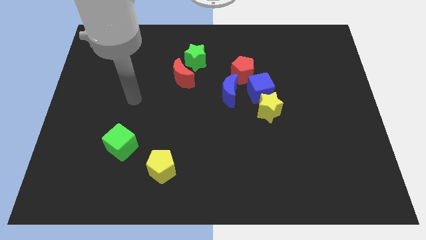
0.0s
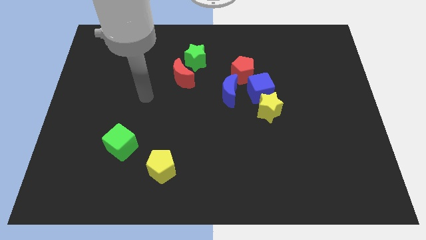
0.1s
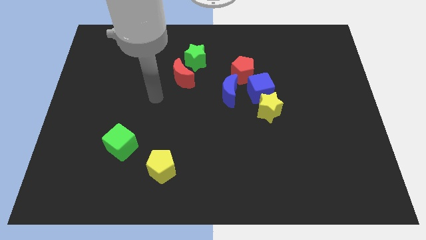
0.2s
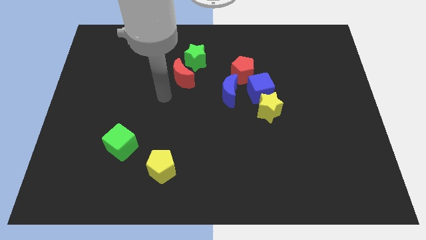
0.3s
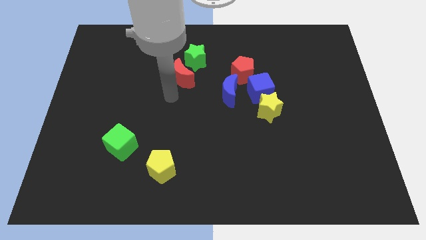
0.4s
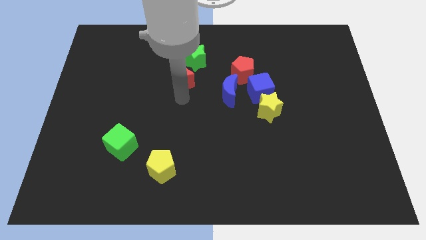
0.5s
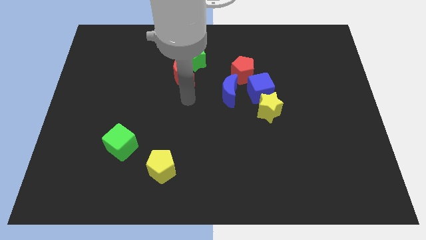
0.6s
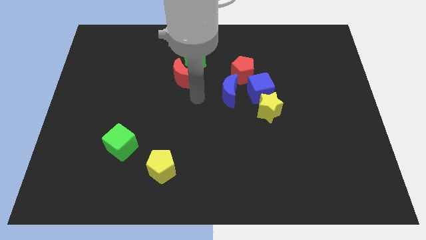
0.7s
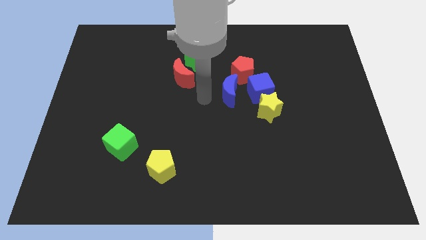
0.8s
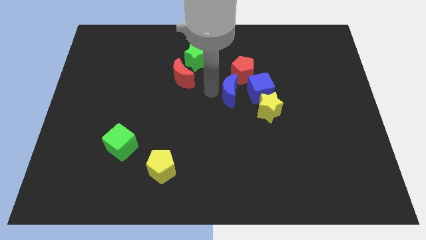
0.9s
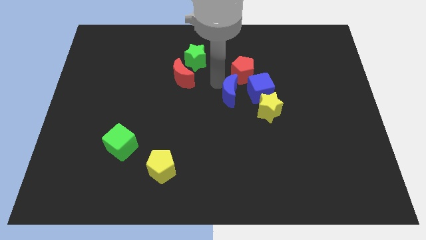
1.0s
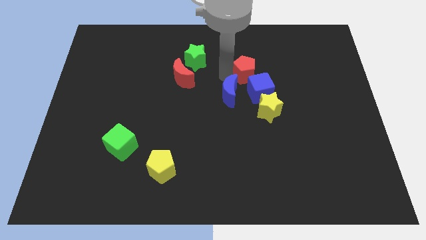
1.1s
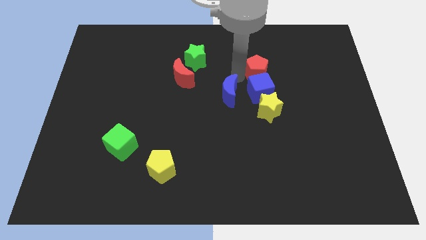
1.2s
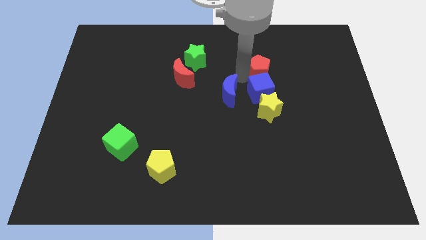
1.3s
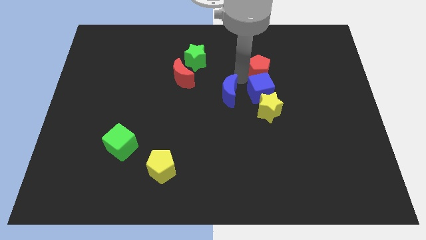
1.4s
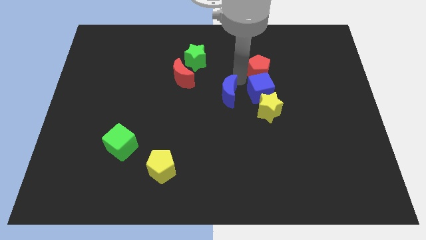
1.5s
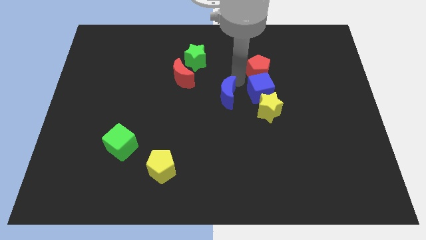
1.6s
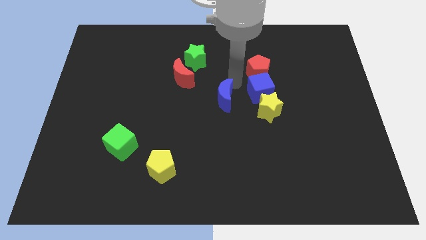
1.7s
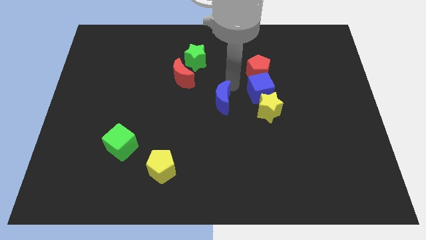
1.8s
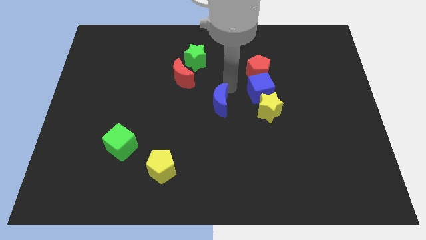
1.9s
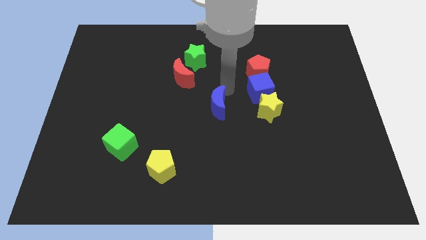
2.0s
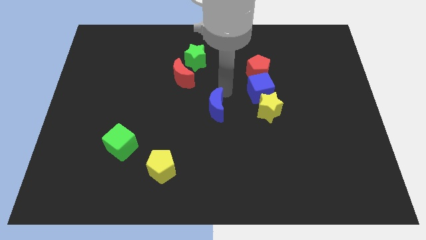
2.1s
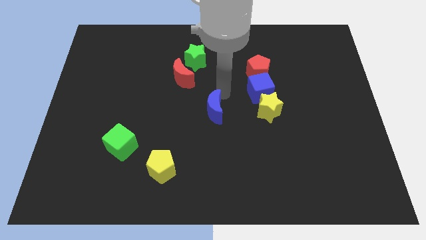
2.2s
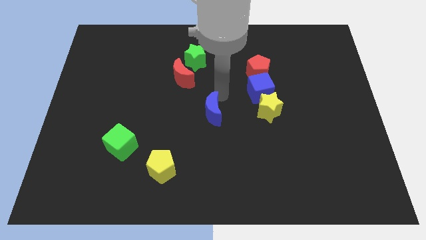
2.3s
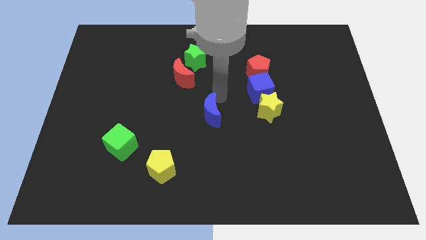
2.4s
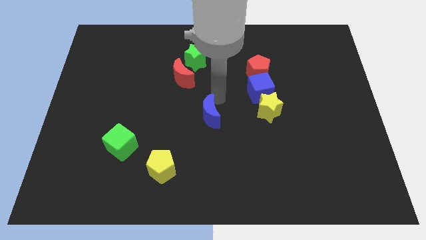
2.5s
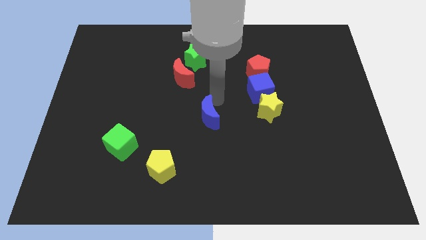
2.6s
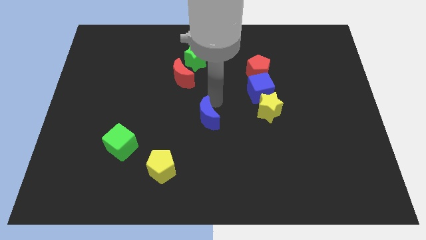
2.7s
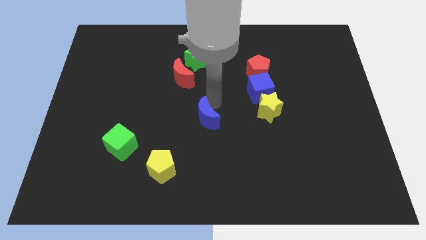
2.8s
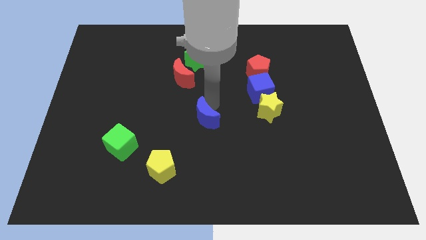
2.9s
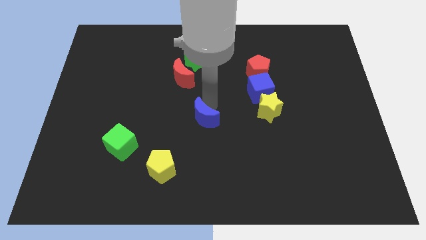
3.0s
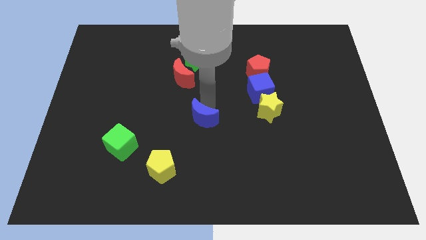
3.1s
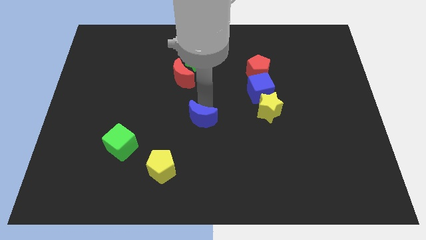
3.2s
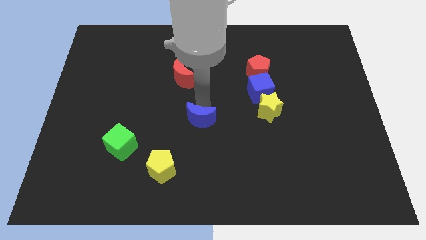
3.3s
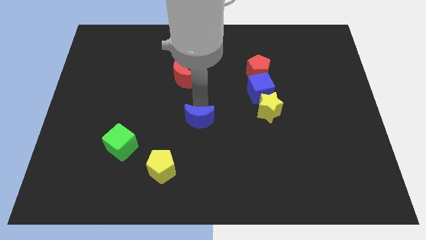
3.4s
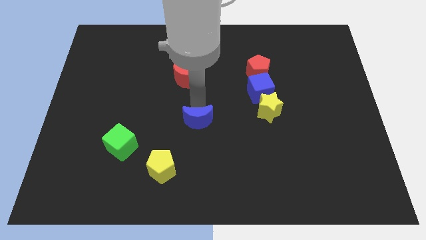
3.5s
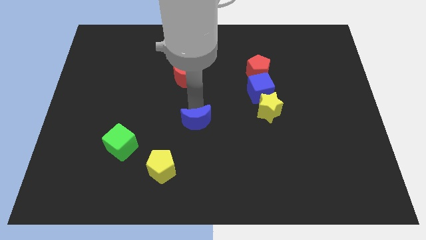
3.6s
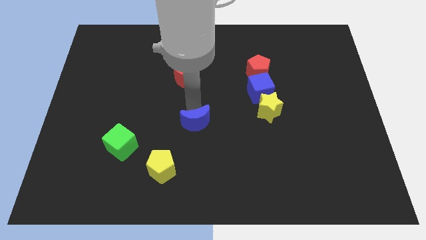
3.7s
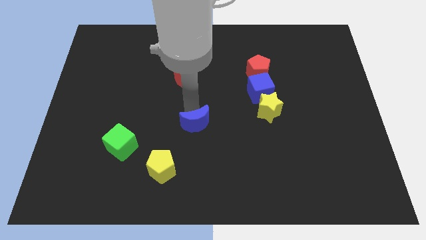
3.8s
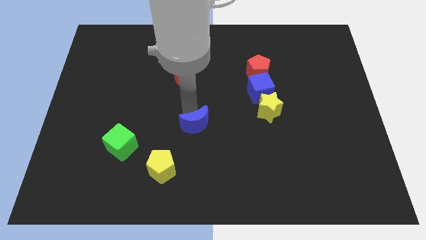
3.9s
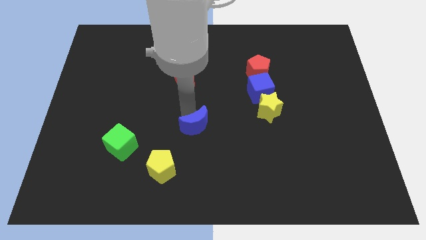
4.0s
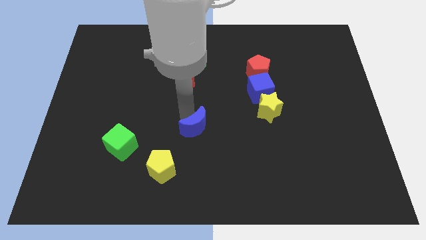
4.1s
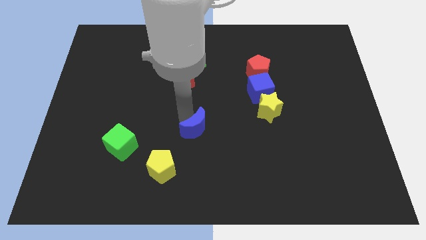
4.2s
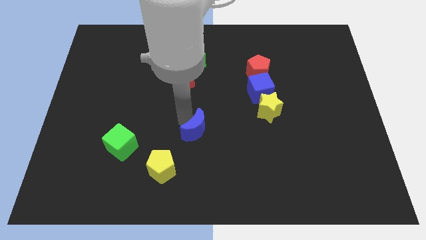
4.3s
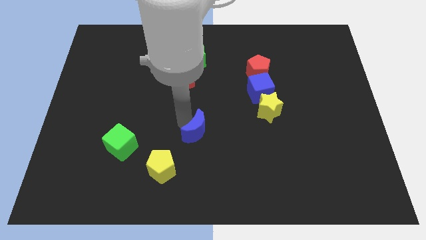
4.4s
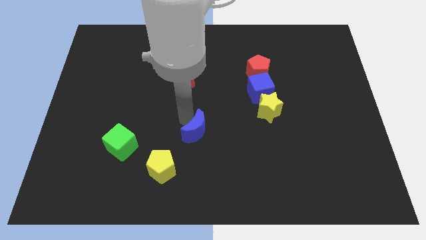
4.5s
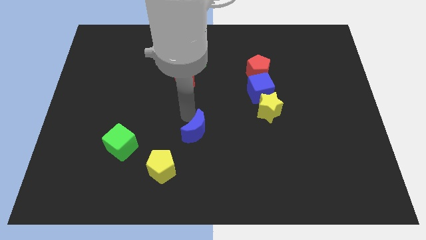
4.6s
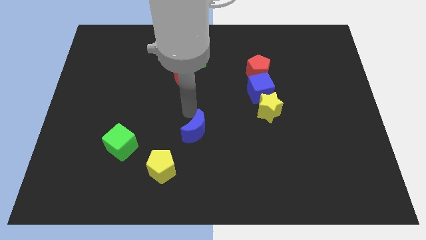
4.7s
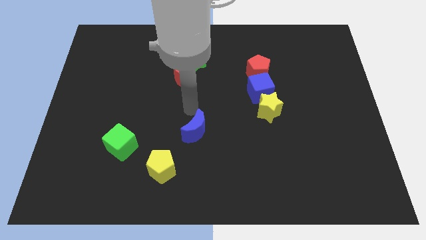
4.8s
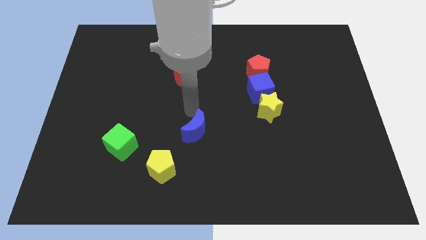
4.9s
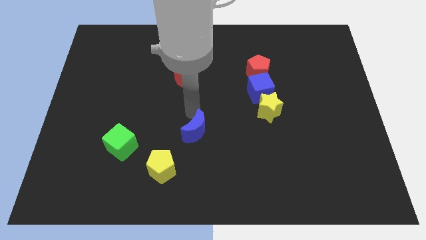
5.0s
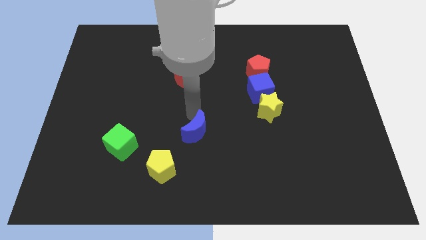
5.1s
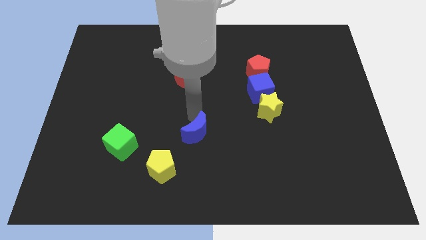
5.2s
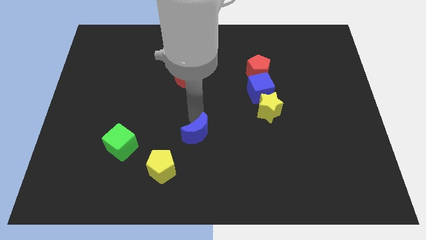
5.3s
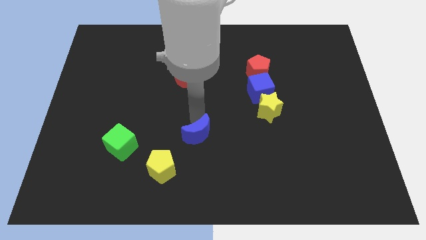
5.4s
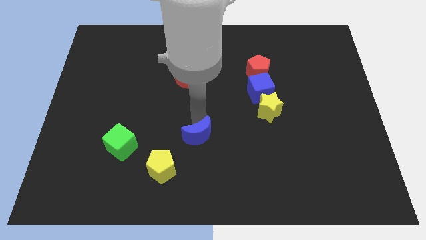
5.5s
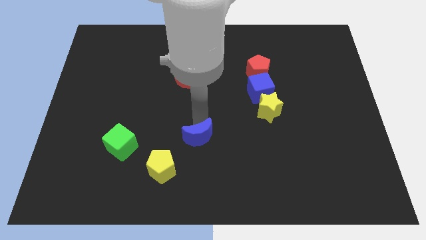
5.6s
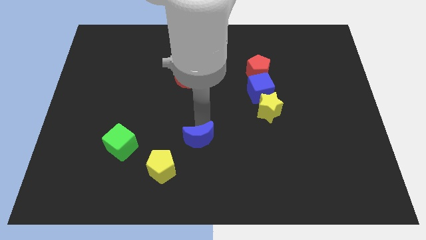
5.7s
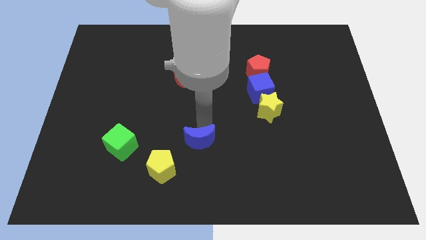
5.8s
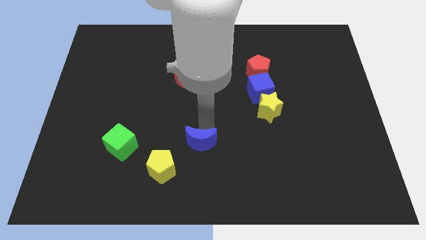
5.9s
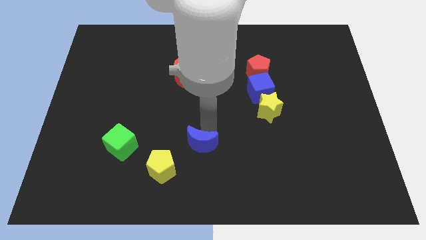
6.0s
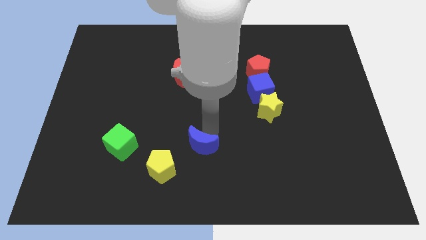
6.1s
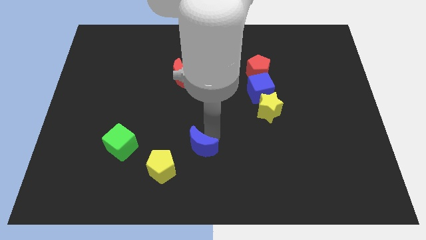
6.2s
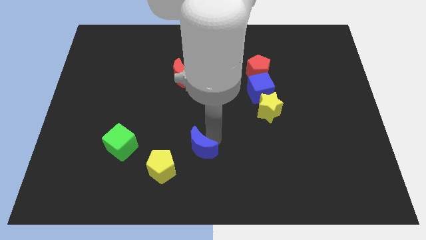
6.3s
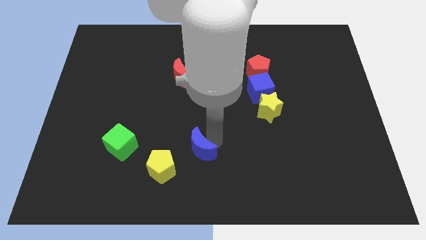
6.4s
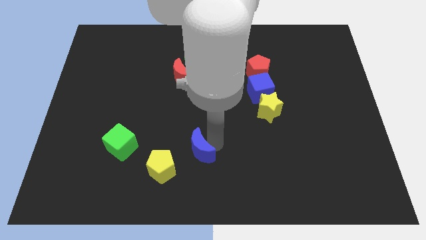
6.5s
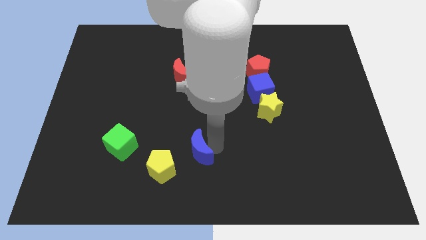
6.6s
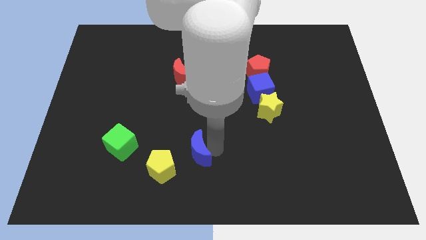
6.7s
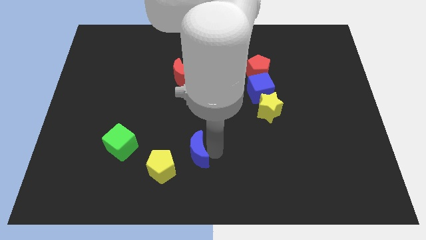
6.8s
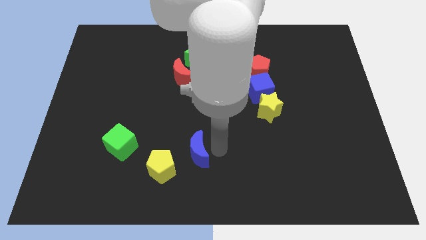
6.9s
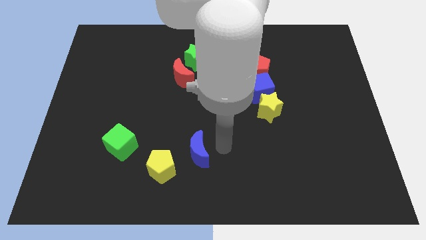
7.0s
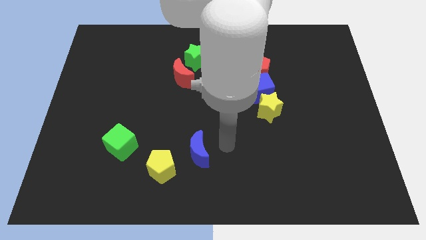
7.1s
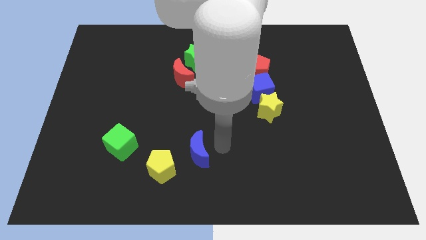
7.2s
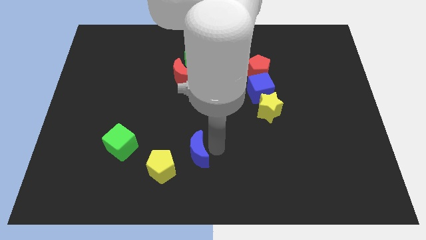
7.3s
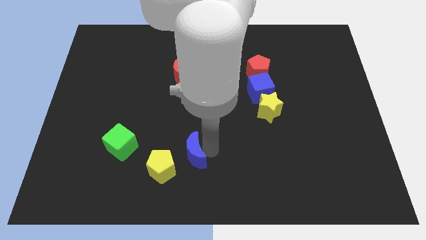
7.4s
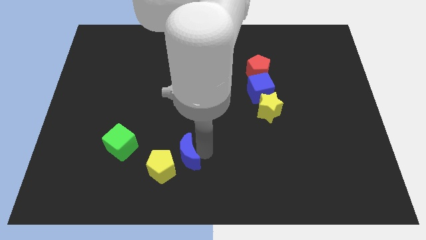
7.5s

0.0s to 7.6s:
push the blue moon next to the yellow pentagon
